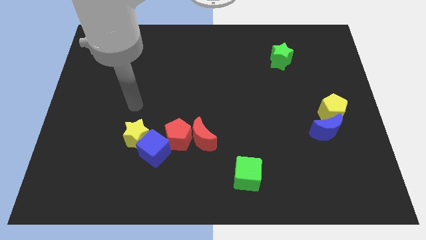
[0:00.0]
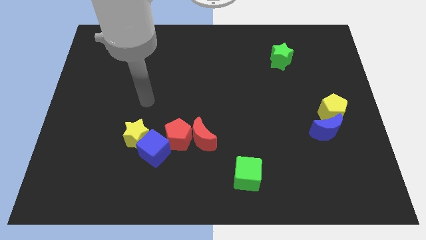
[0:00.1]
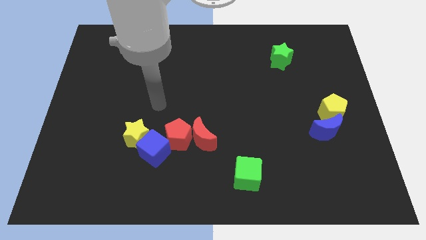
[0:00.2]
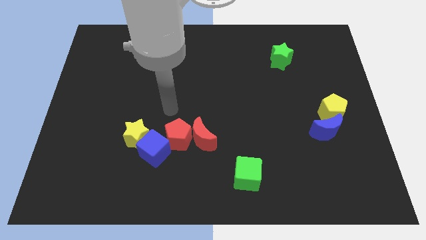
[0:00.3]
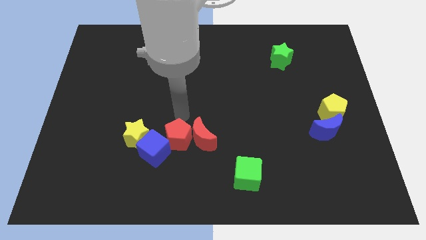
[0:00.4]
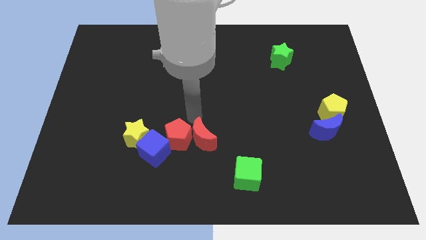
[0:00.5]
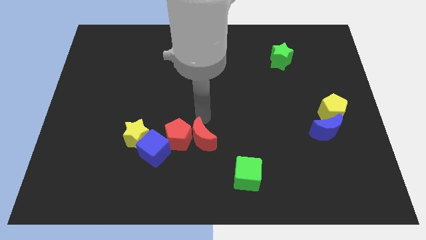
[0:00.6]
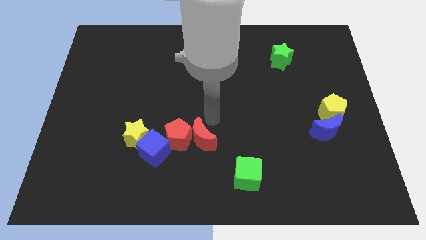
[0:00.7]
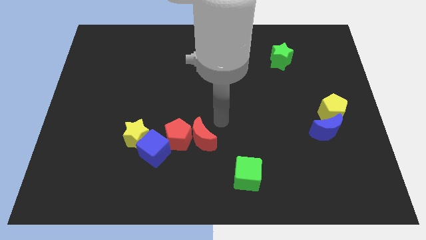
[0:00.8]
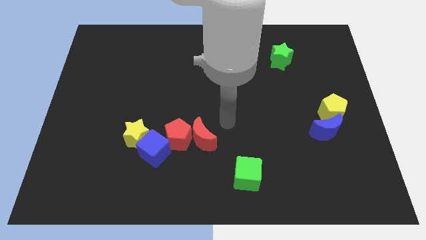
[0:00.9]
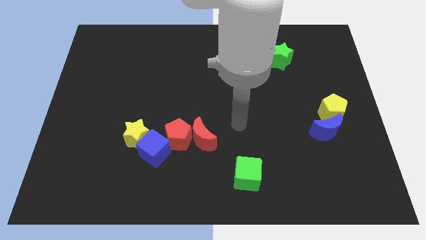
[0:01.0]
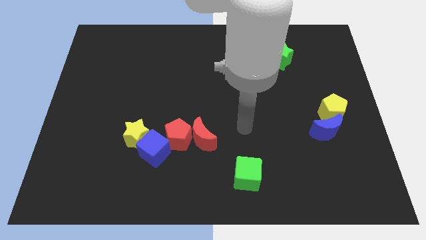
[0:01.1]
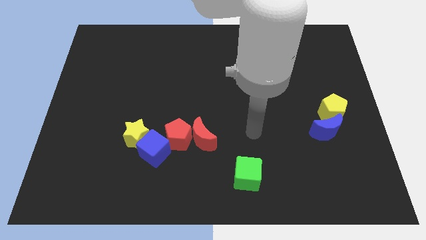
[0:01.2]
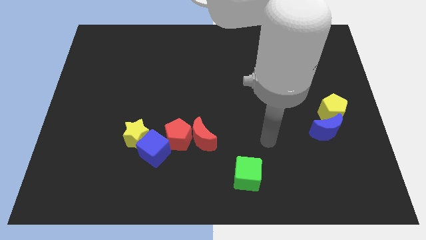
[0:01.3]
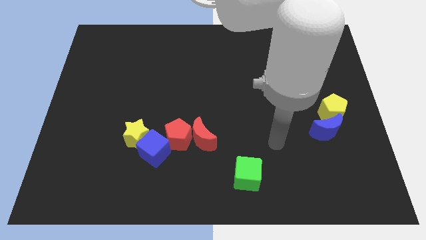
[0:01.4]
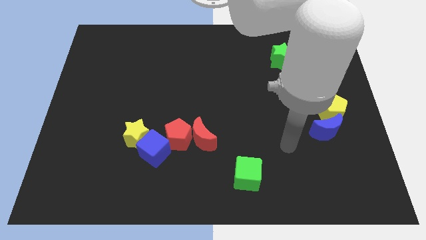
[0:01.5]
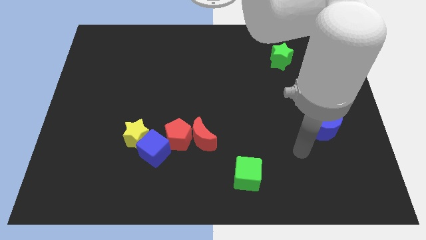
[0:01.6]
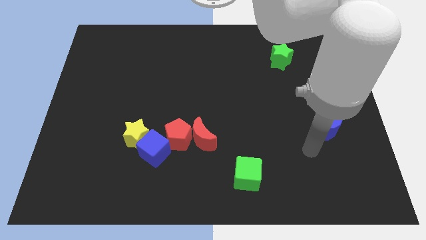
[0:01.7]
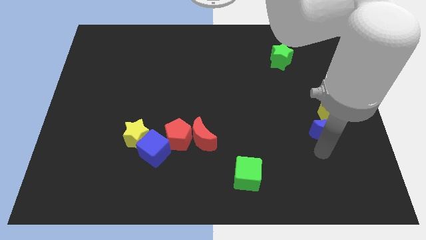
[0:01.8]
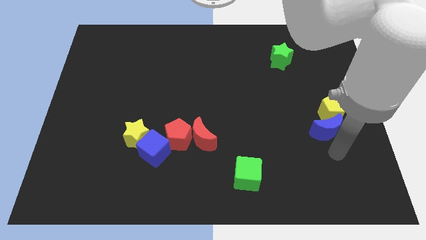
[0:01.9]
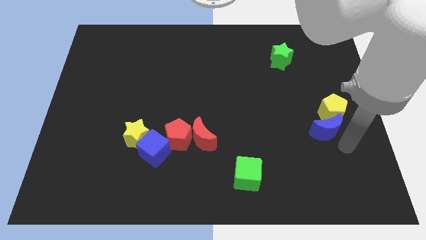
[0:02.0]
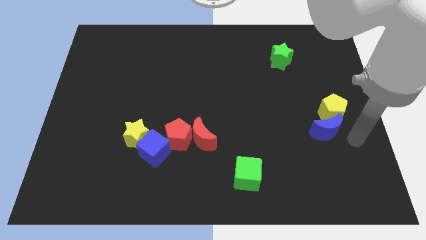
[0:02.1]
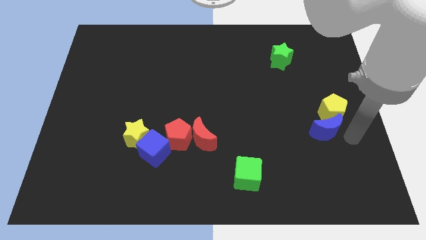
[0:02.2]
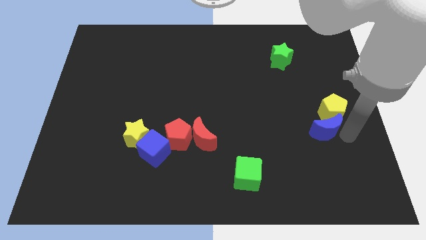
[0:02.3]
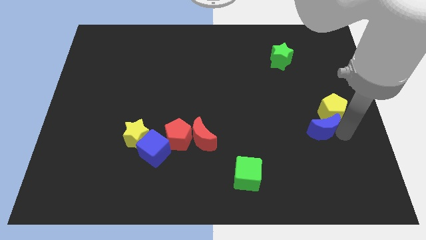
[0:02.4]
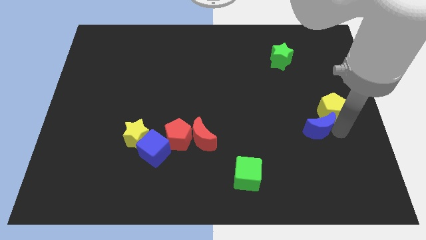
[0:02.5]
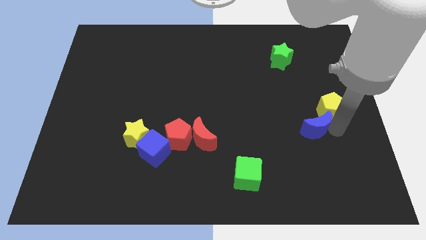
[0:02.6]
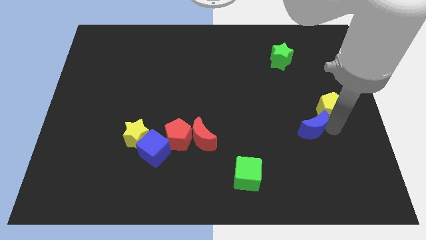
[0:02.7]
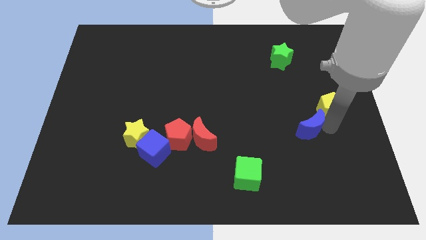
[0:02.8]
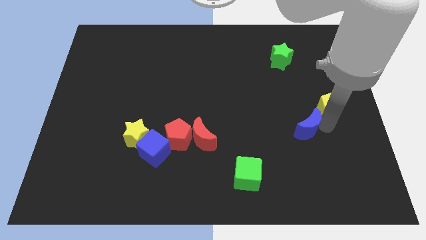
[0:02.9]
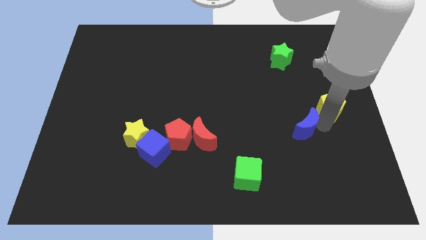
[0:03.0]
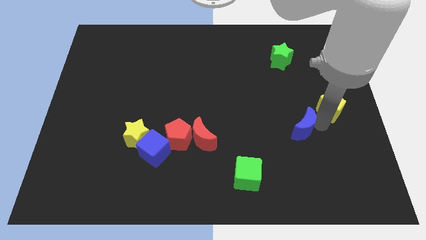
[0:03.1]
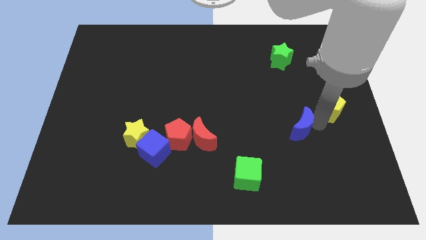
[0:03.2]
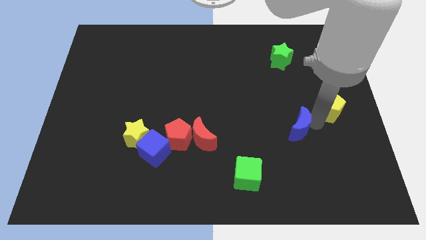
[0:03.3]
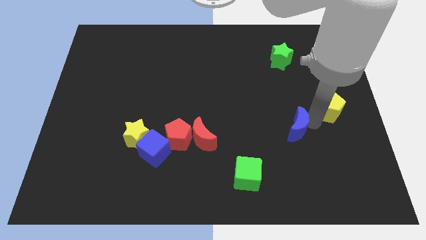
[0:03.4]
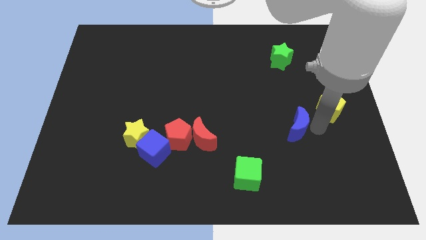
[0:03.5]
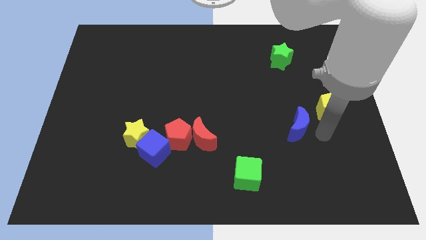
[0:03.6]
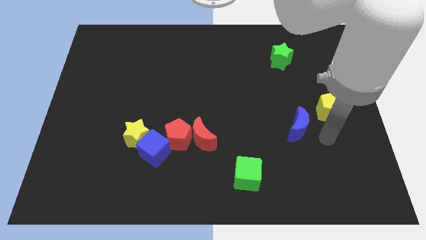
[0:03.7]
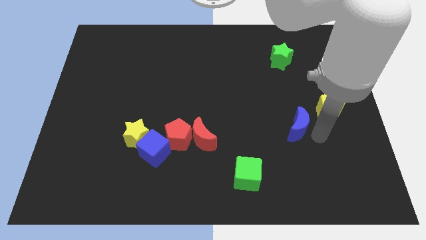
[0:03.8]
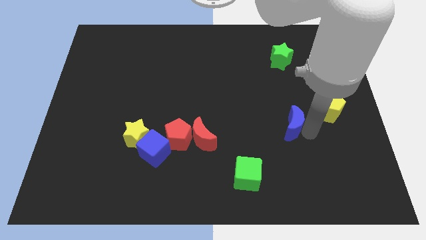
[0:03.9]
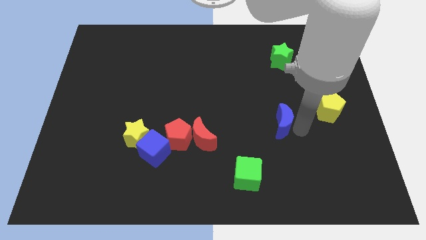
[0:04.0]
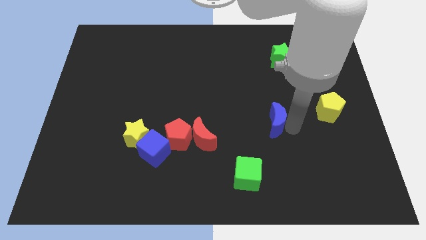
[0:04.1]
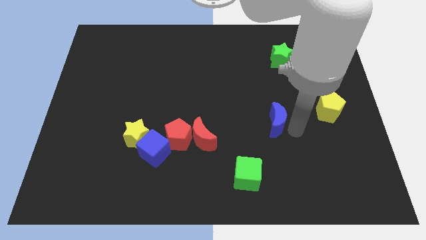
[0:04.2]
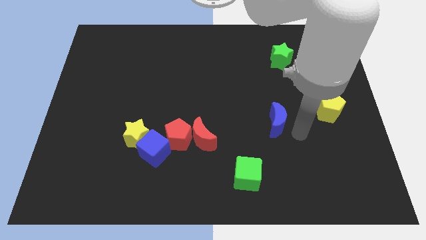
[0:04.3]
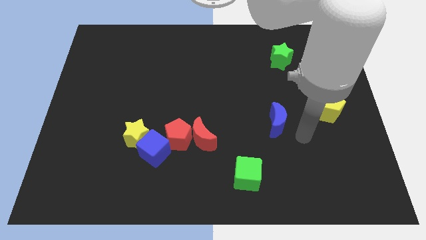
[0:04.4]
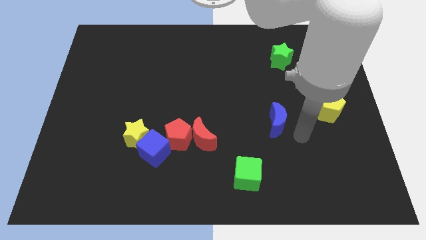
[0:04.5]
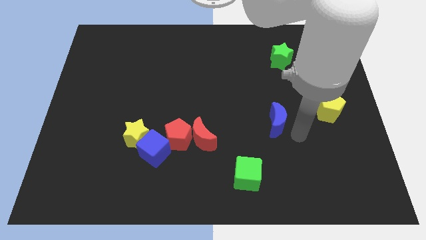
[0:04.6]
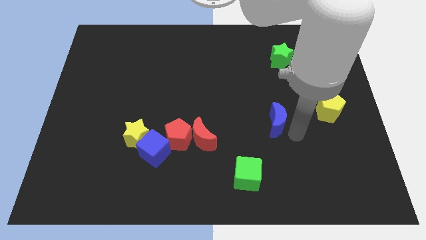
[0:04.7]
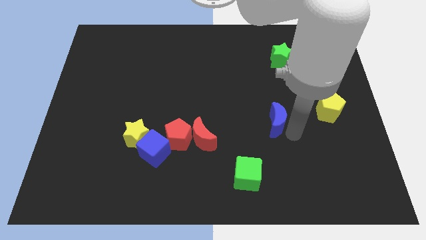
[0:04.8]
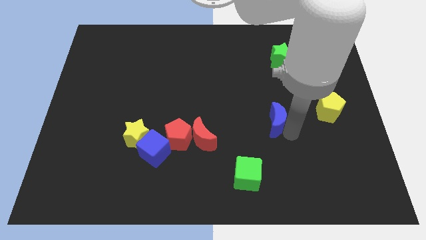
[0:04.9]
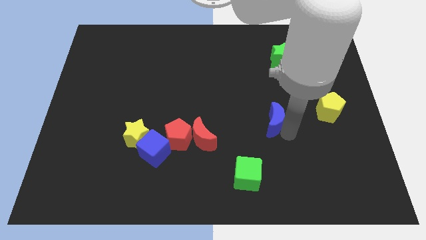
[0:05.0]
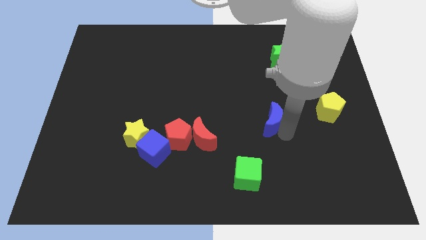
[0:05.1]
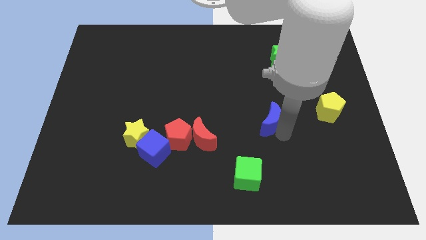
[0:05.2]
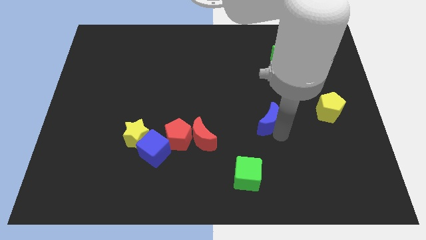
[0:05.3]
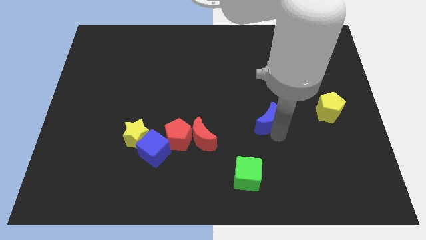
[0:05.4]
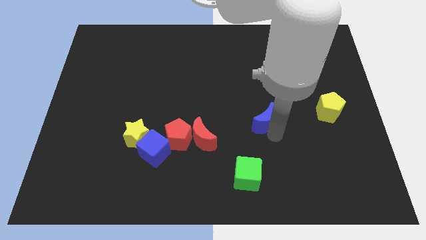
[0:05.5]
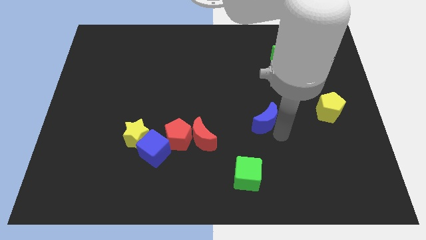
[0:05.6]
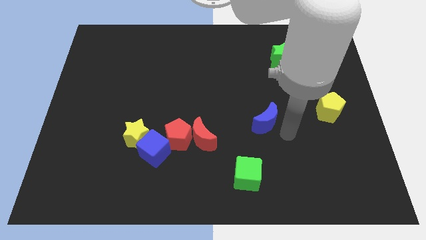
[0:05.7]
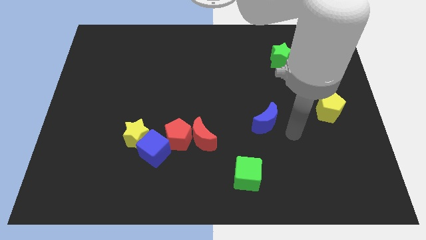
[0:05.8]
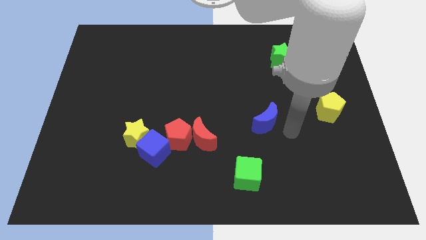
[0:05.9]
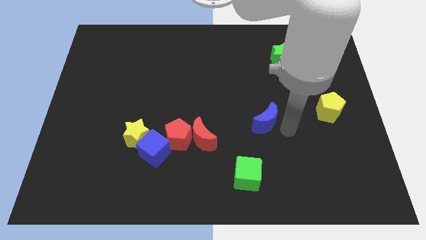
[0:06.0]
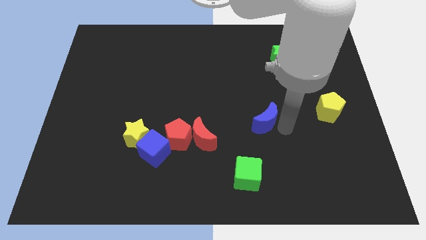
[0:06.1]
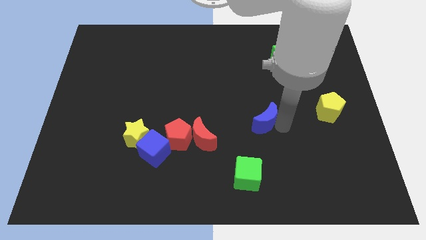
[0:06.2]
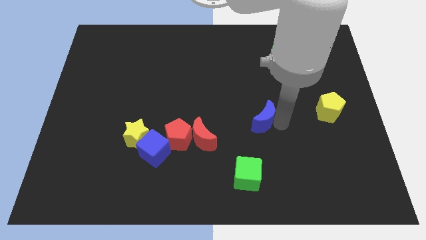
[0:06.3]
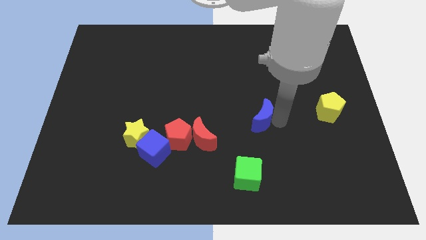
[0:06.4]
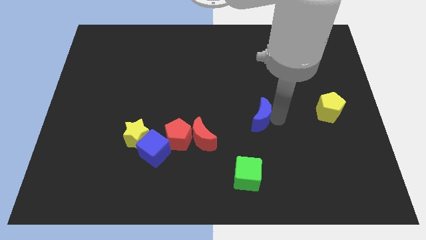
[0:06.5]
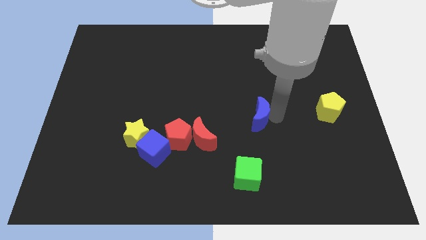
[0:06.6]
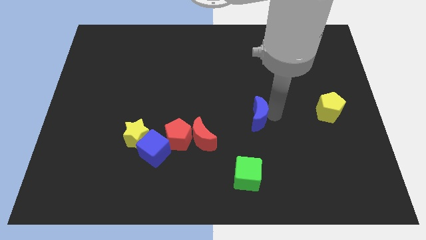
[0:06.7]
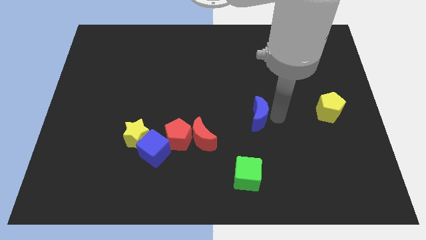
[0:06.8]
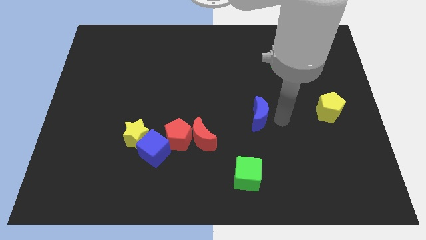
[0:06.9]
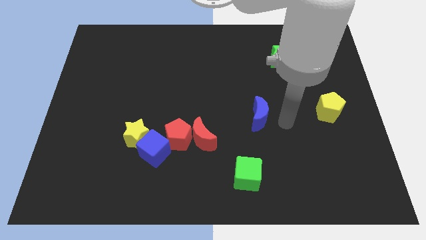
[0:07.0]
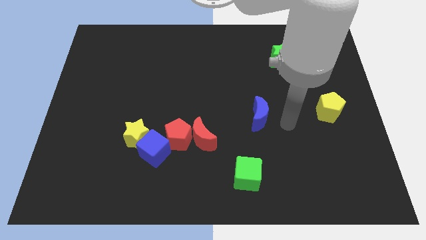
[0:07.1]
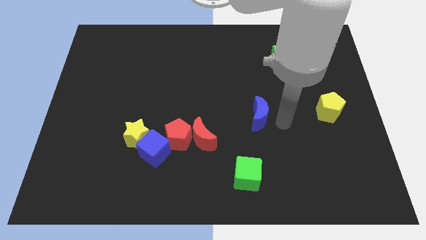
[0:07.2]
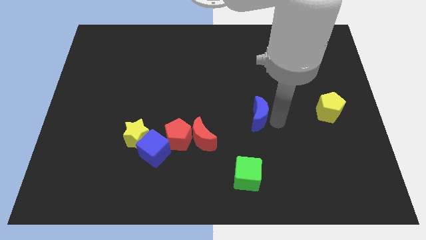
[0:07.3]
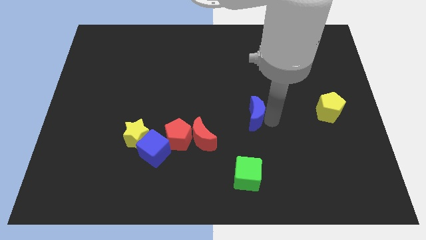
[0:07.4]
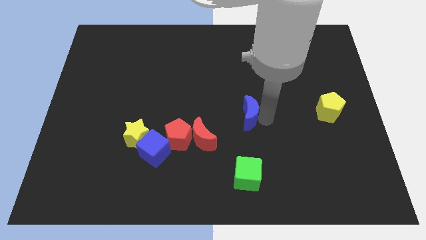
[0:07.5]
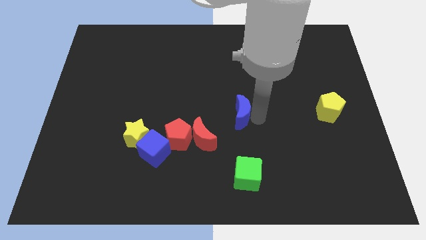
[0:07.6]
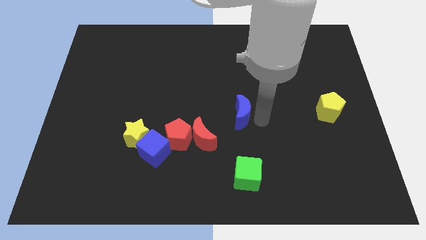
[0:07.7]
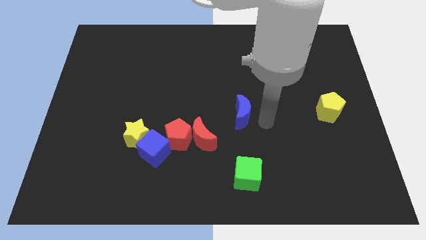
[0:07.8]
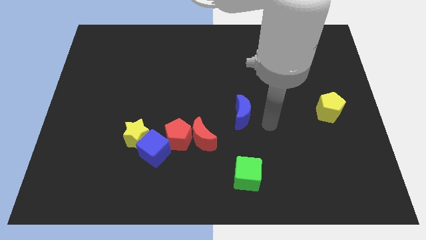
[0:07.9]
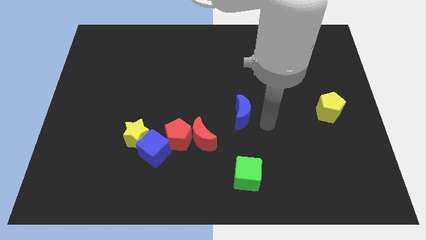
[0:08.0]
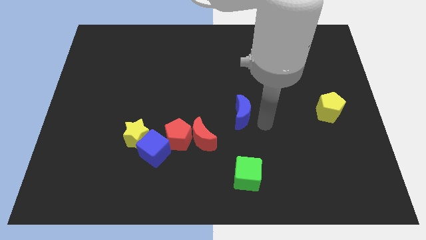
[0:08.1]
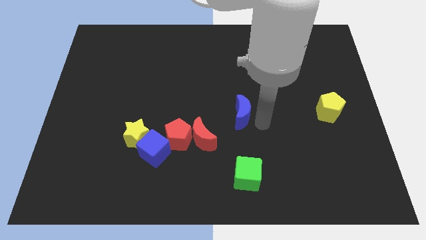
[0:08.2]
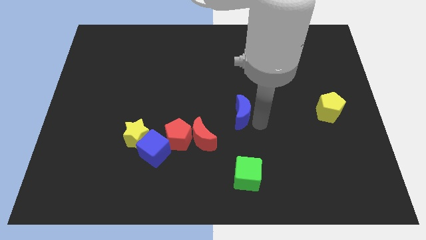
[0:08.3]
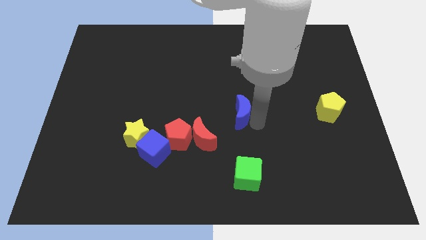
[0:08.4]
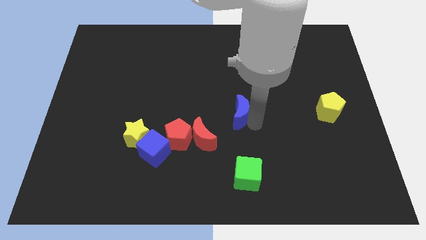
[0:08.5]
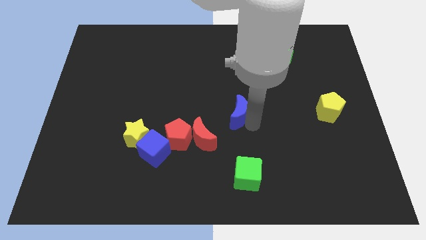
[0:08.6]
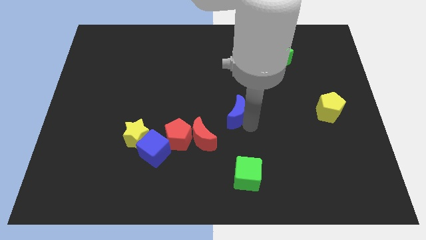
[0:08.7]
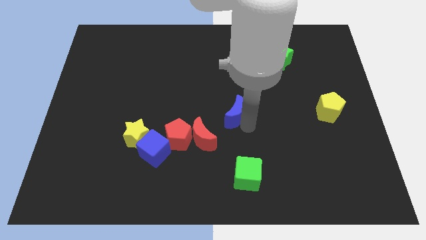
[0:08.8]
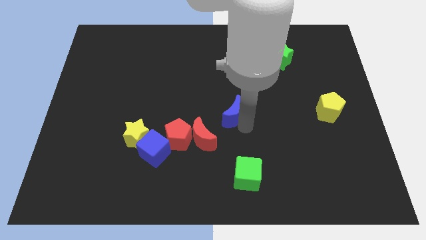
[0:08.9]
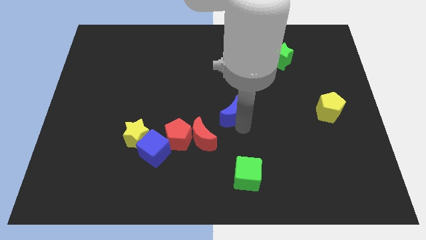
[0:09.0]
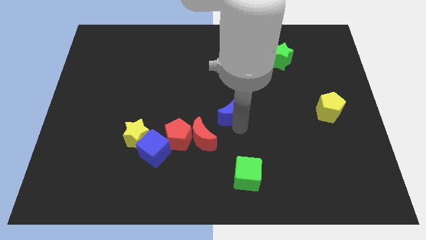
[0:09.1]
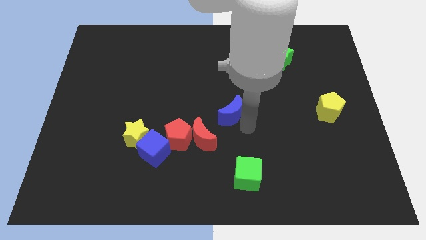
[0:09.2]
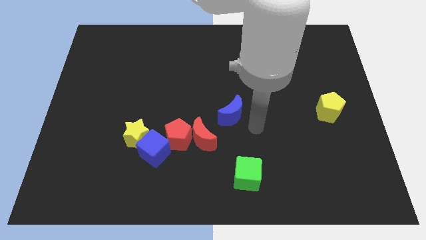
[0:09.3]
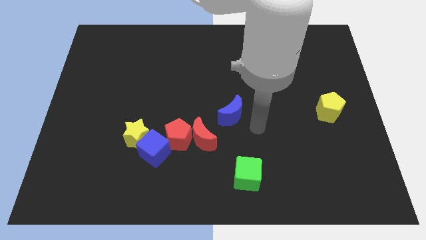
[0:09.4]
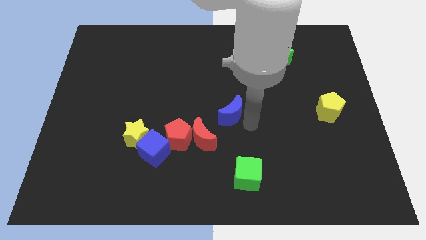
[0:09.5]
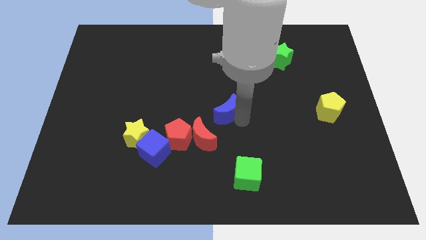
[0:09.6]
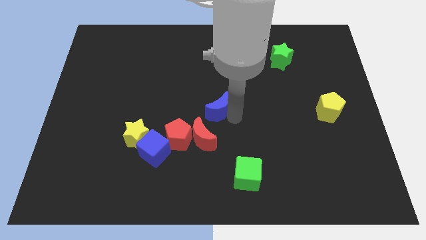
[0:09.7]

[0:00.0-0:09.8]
push the blue moon above the red moon
